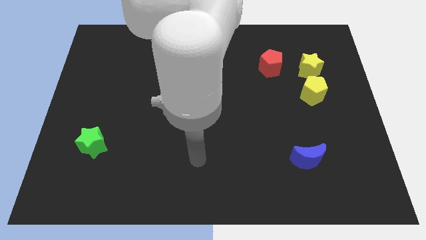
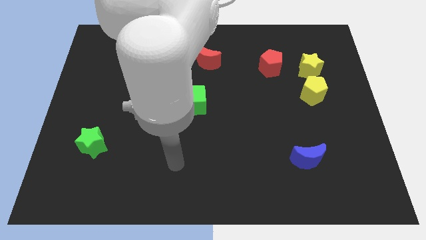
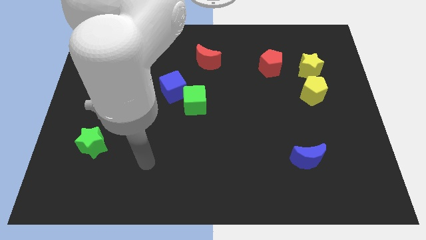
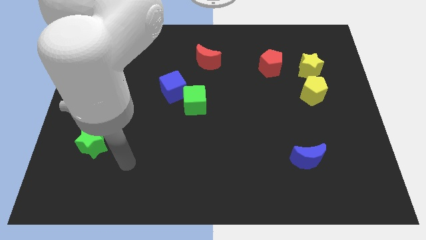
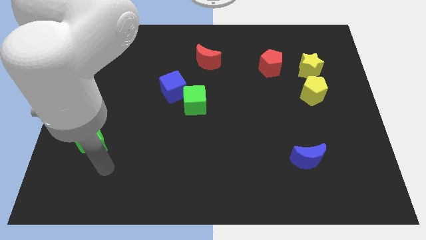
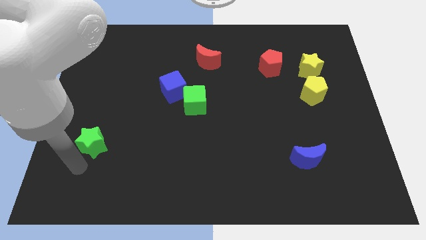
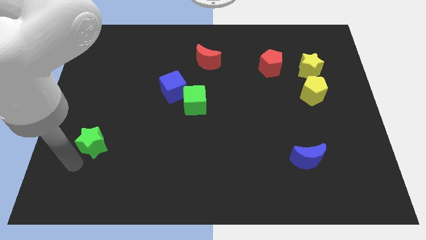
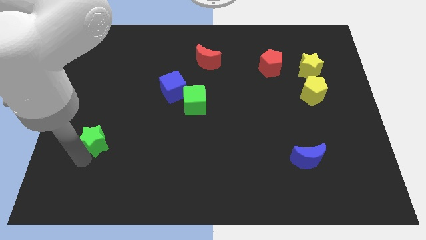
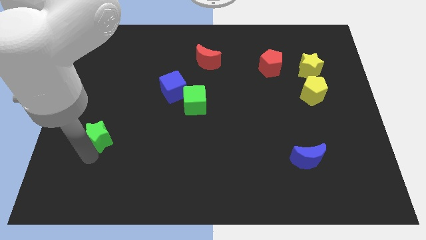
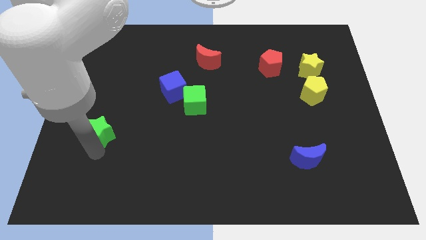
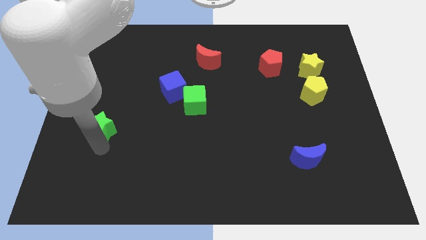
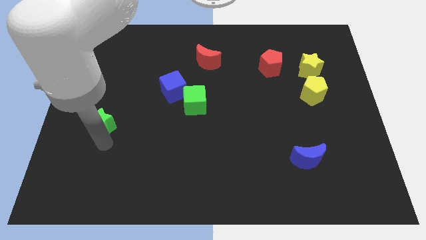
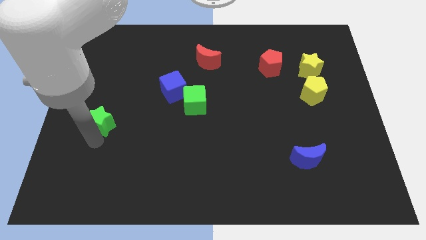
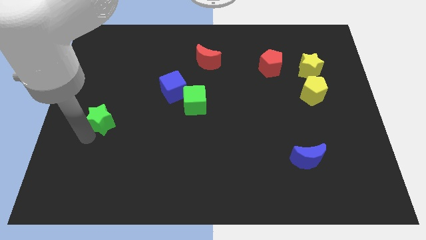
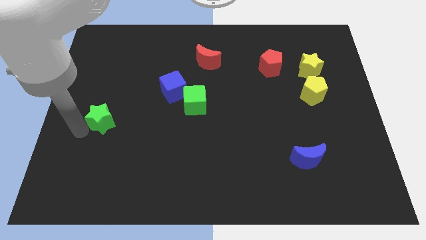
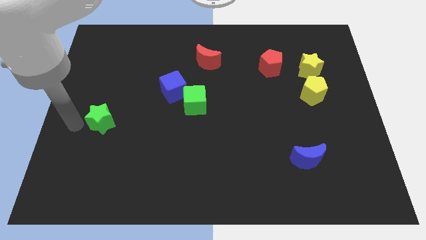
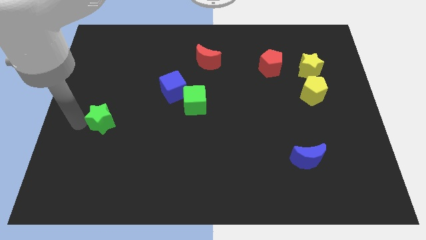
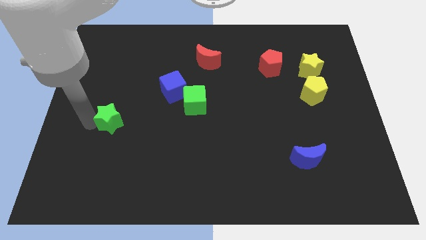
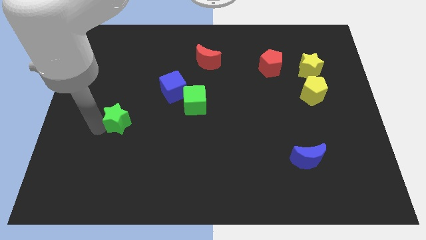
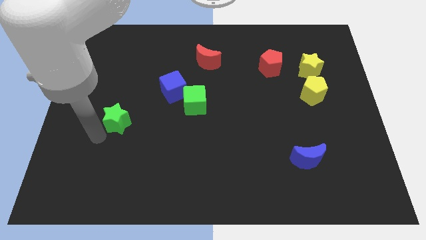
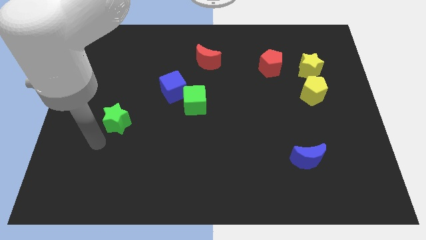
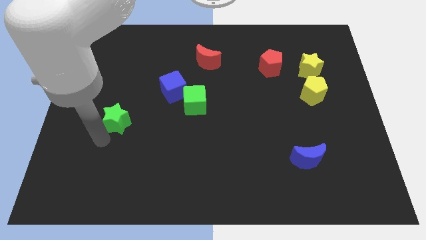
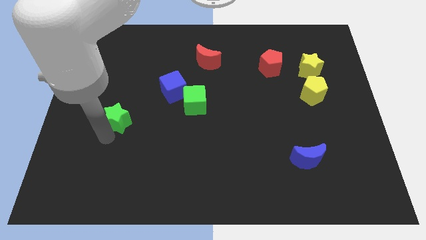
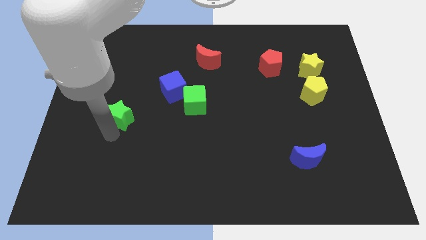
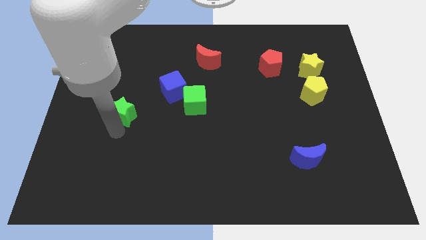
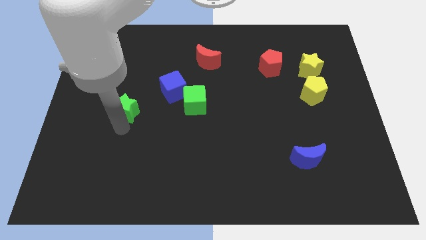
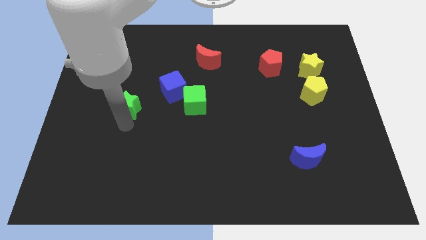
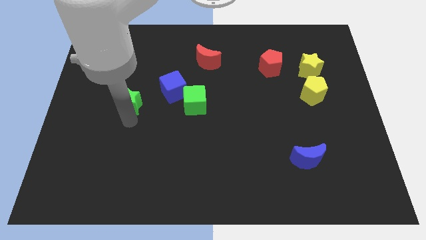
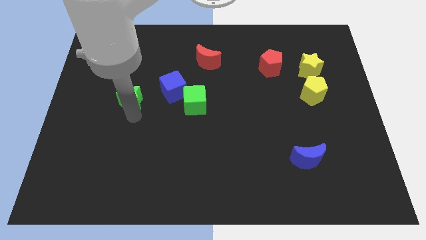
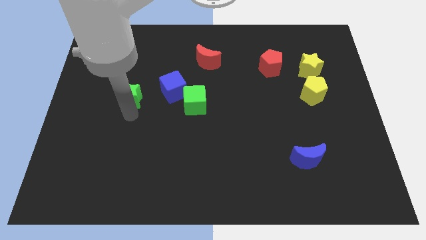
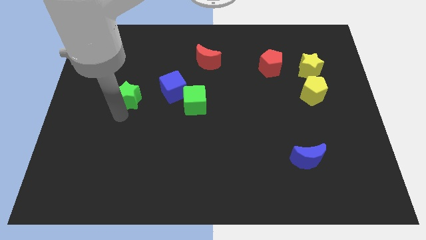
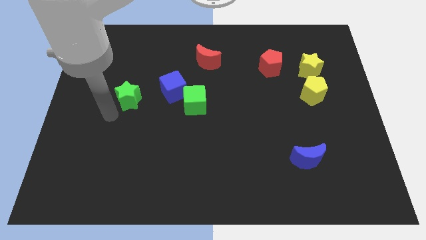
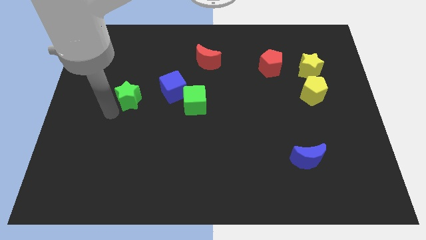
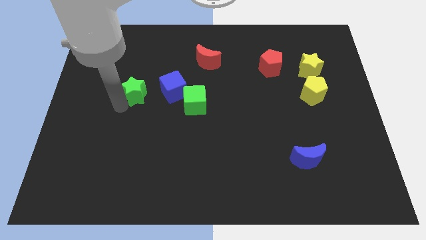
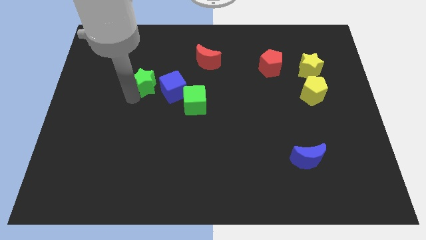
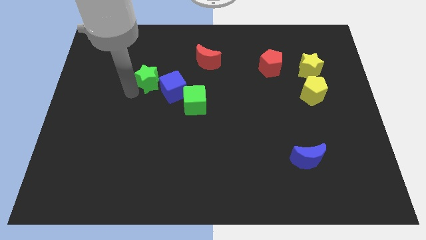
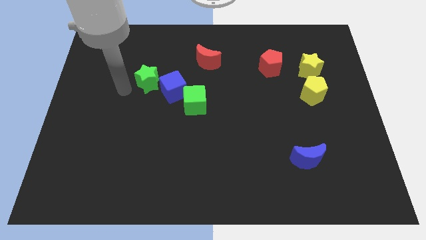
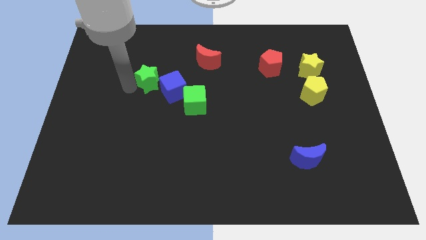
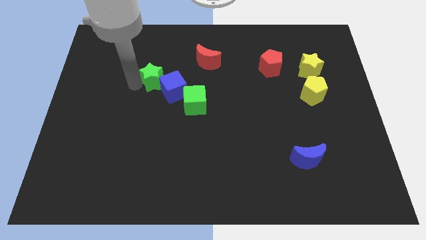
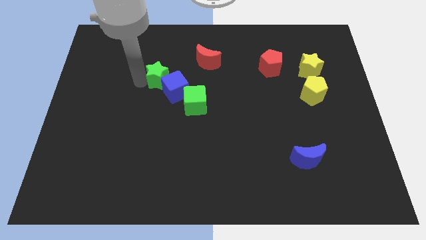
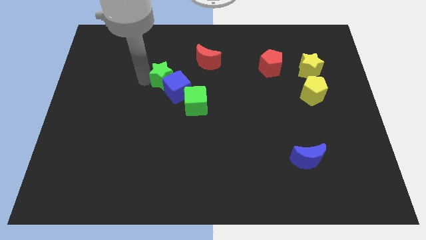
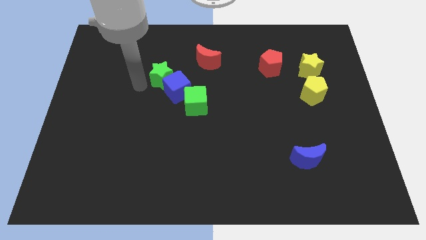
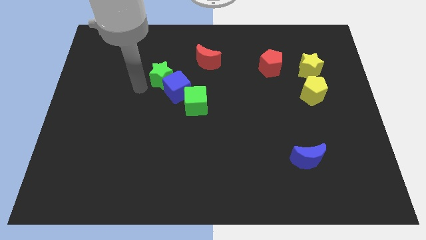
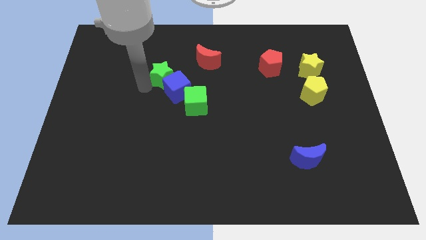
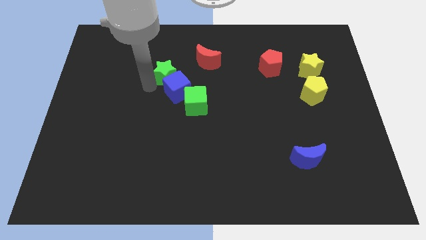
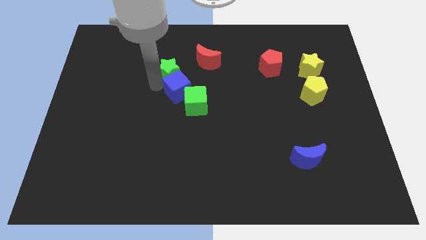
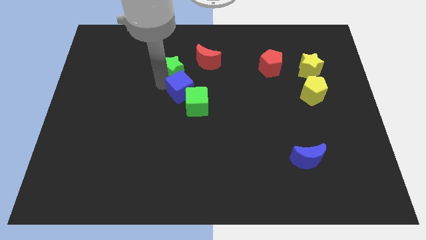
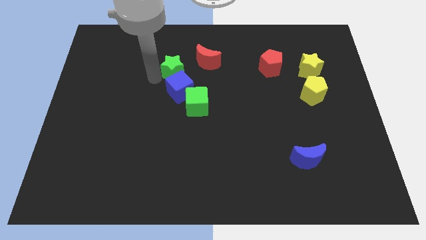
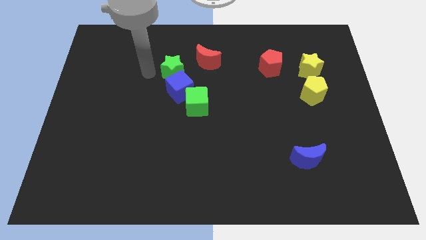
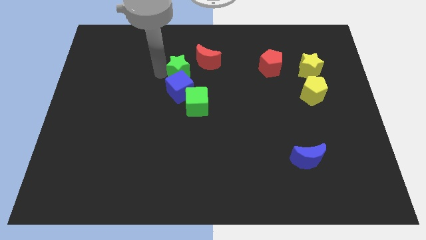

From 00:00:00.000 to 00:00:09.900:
slide the green star to the top of the green cube

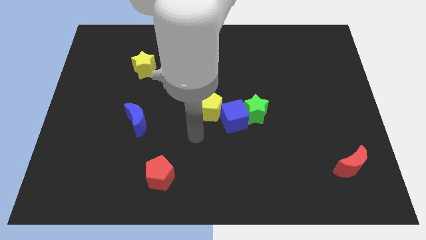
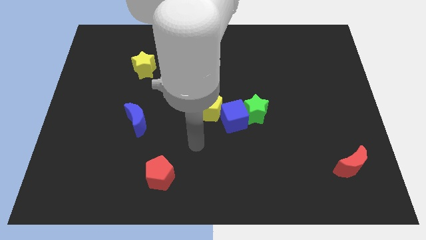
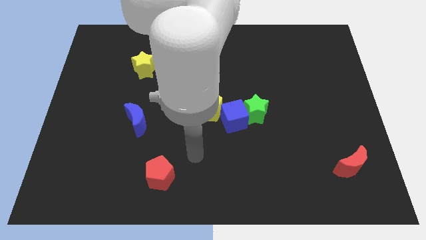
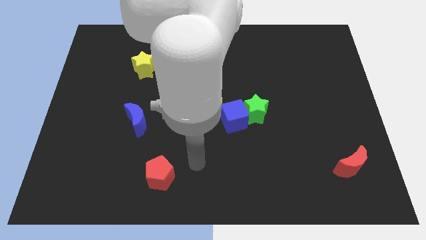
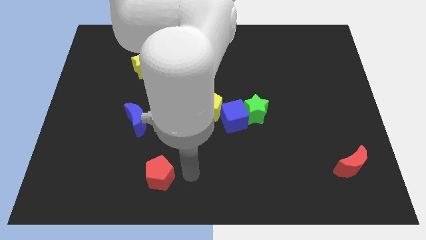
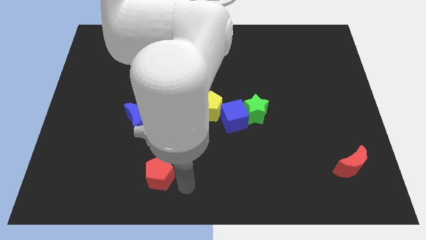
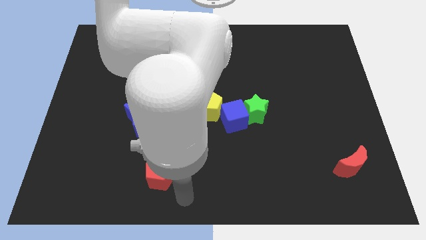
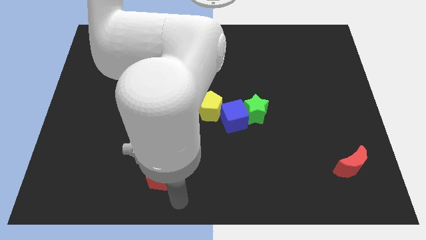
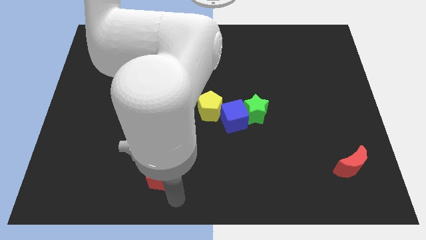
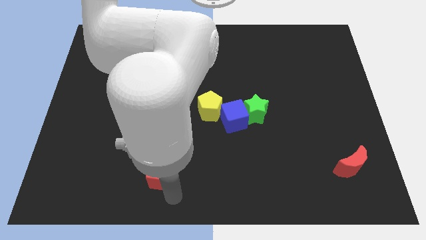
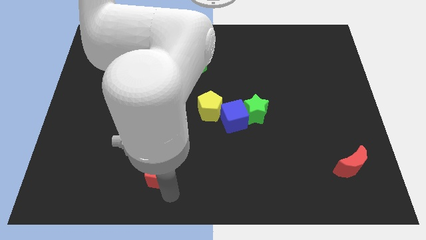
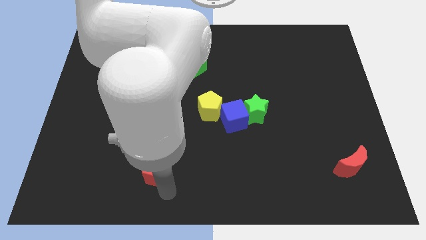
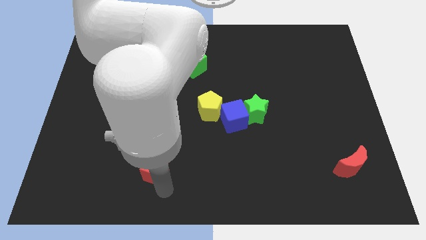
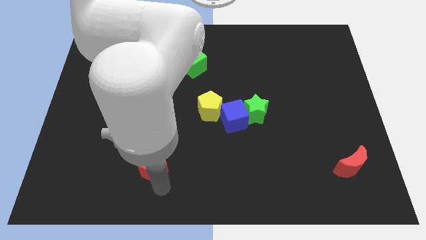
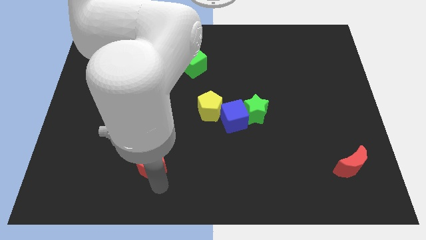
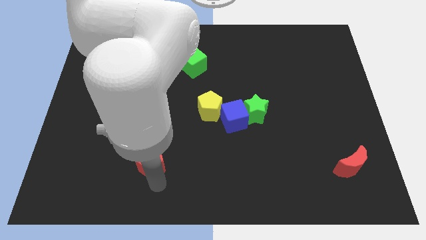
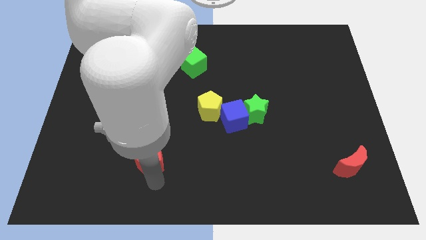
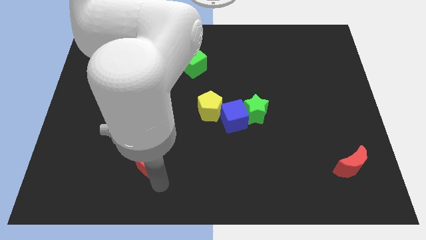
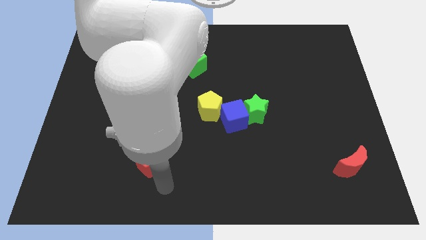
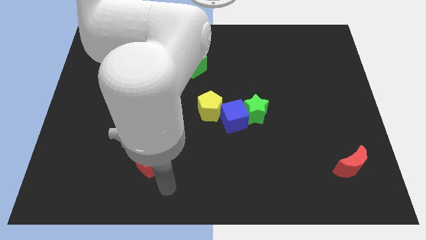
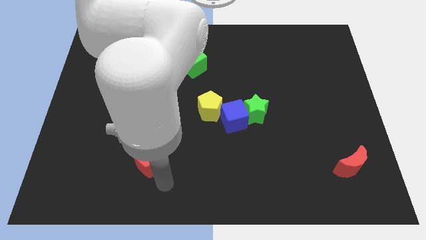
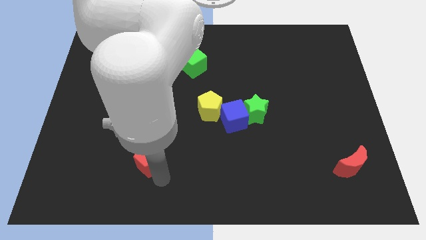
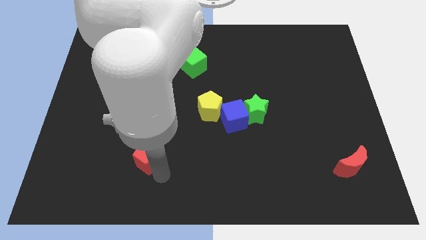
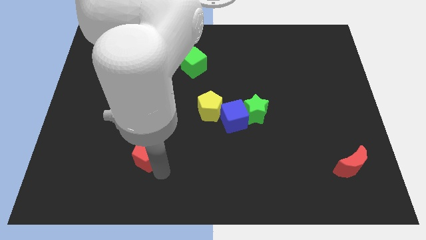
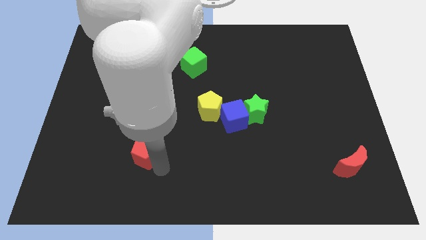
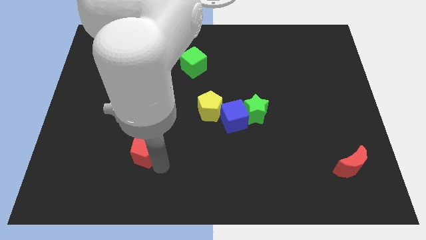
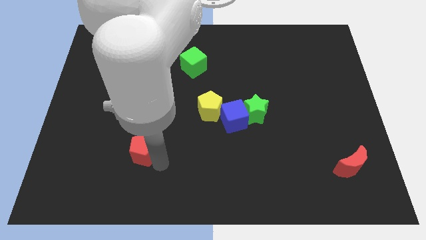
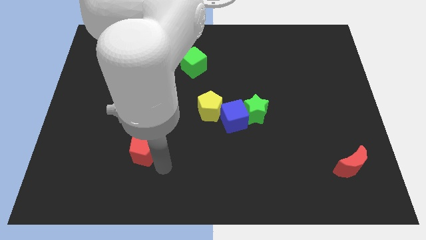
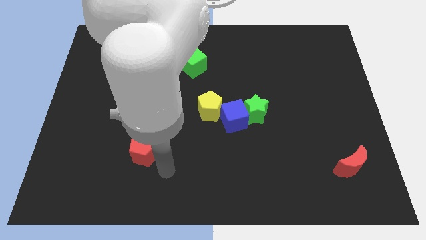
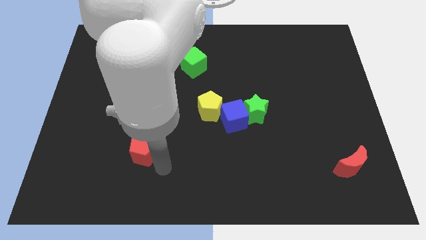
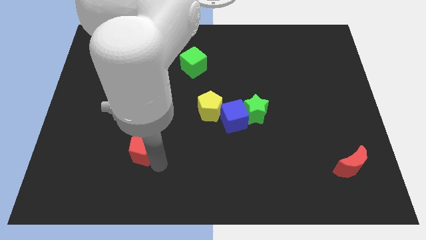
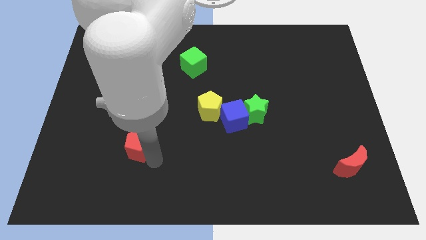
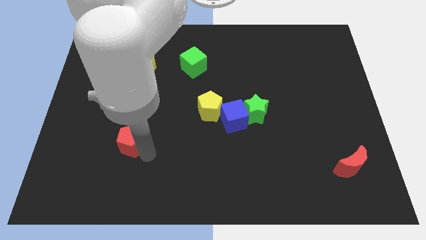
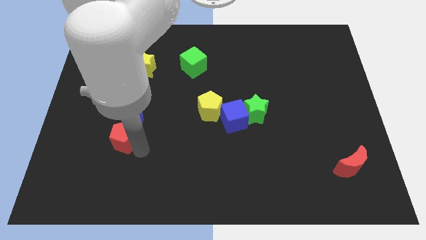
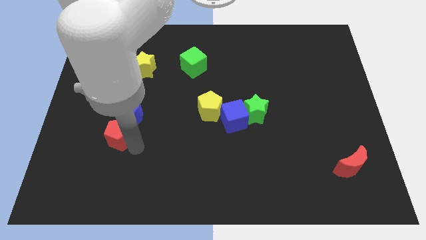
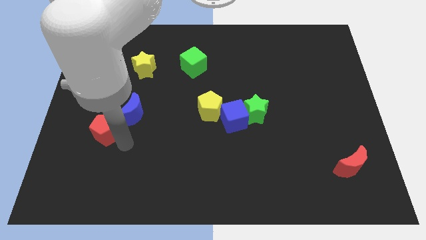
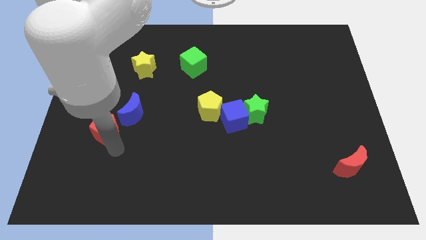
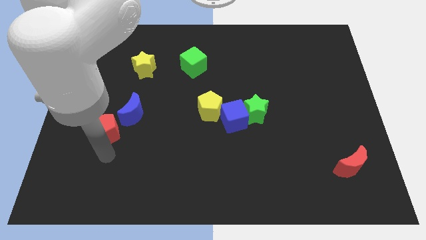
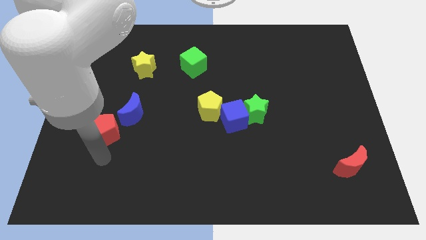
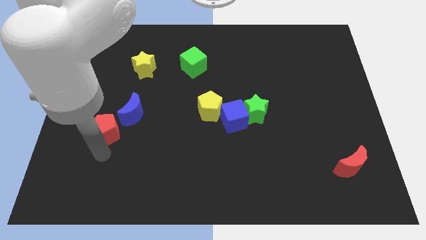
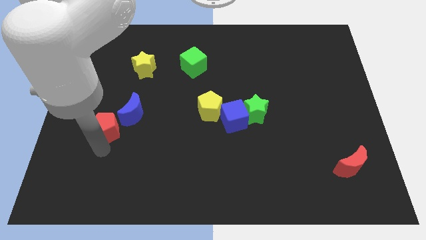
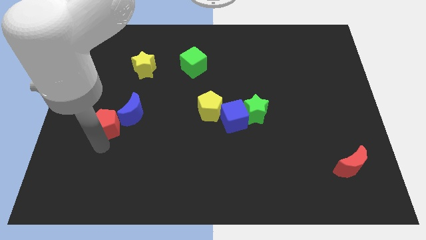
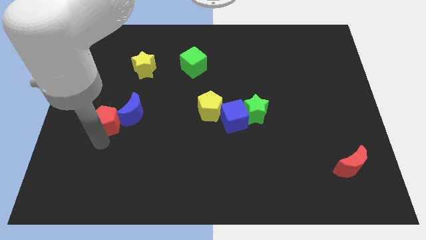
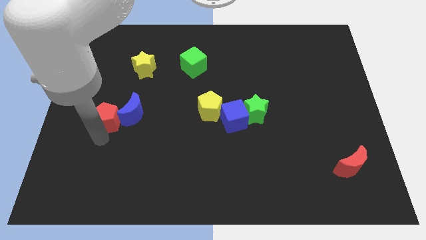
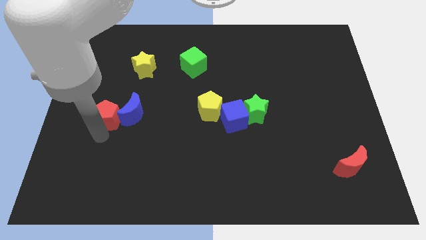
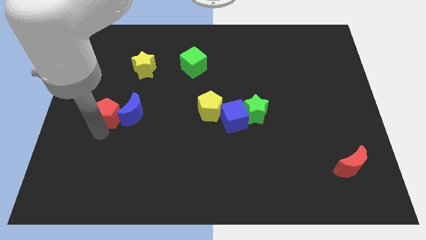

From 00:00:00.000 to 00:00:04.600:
put the red pentagon to the top left of the blue moon
